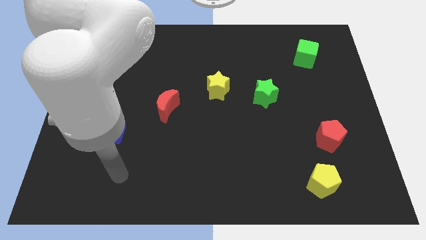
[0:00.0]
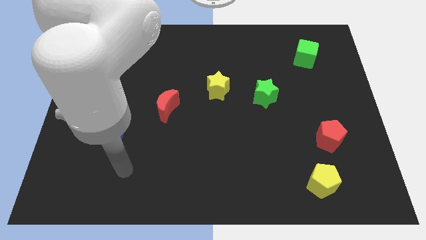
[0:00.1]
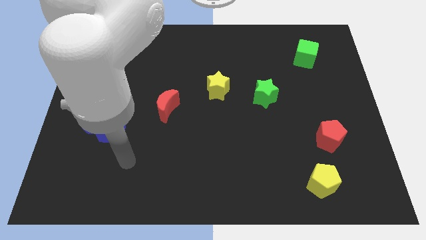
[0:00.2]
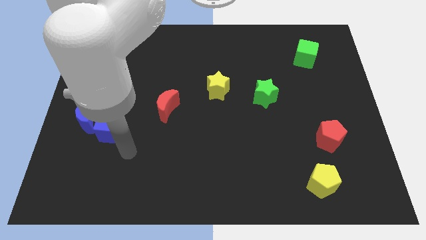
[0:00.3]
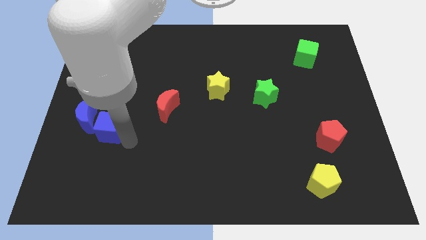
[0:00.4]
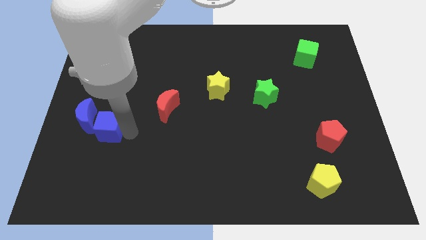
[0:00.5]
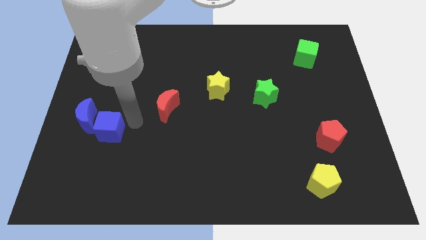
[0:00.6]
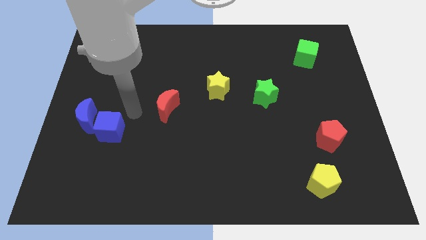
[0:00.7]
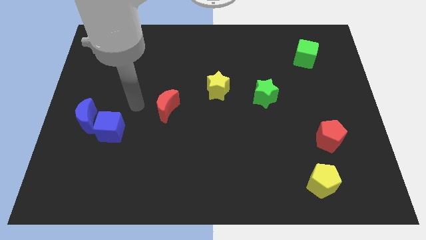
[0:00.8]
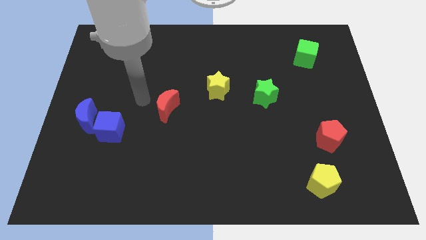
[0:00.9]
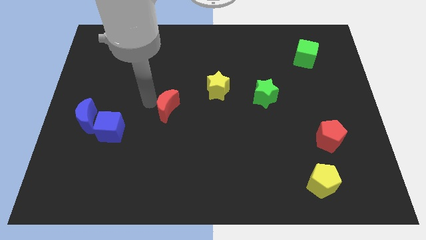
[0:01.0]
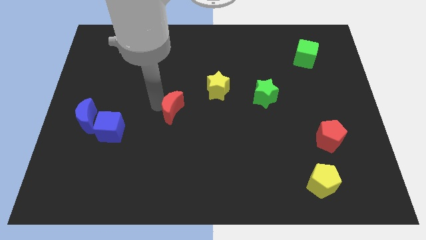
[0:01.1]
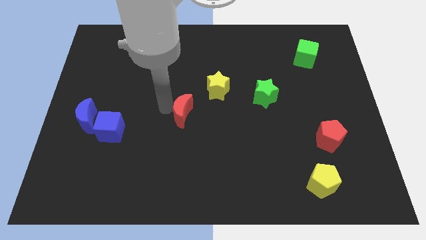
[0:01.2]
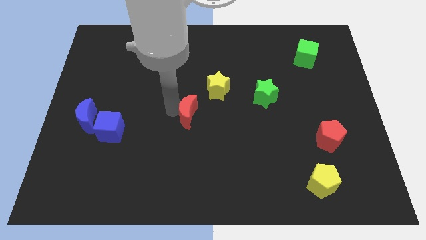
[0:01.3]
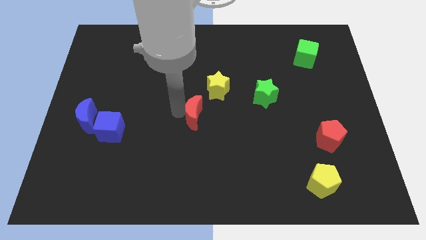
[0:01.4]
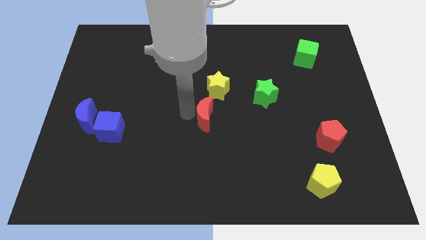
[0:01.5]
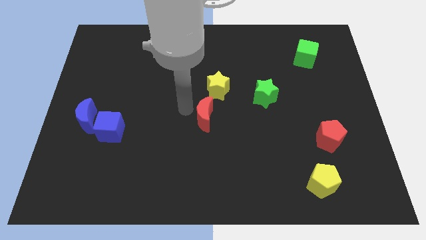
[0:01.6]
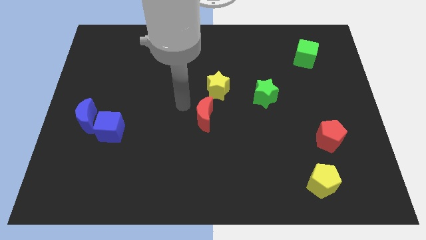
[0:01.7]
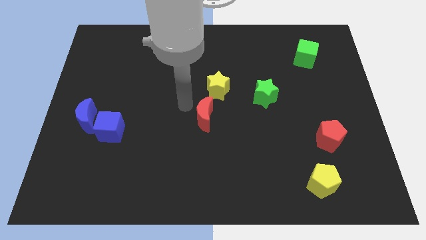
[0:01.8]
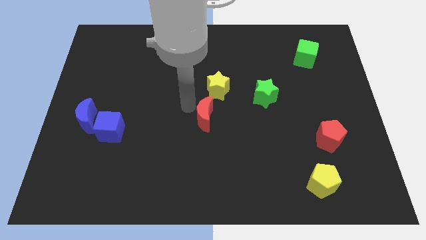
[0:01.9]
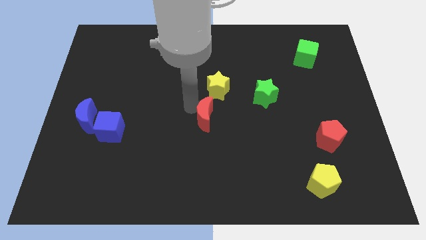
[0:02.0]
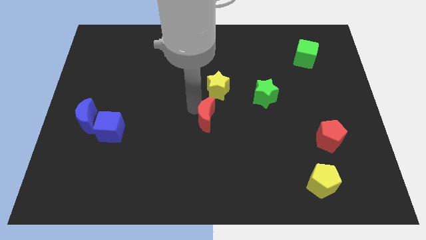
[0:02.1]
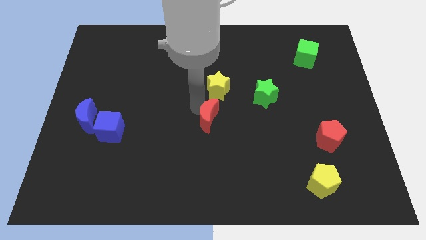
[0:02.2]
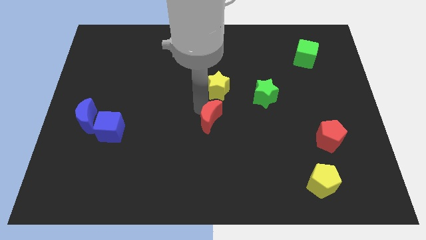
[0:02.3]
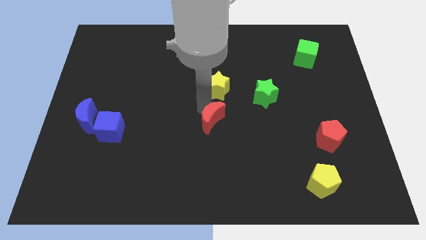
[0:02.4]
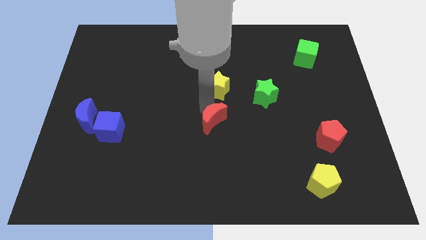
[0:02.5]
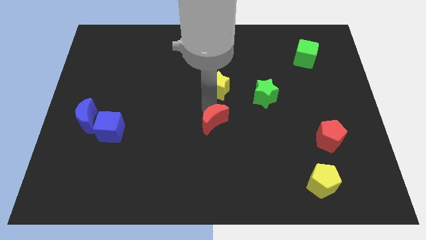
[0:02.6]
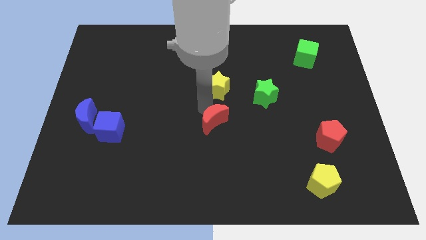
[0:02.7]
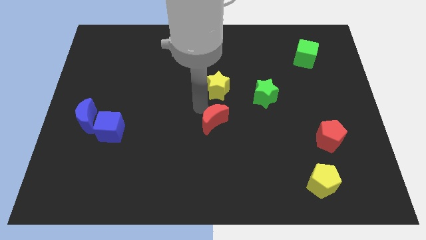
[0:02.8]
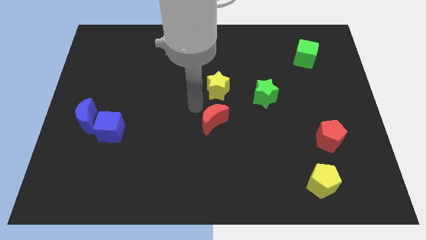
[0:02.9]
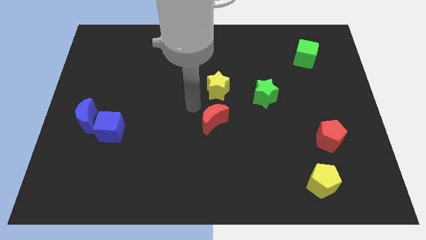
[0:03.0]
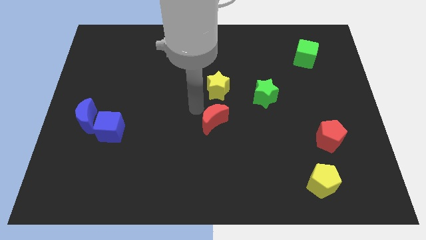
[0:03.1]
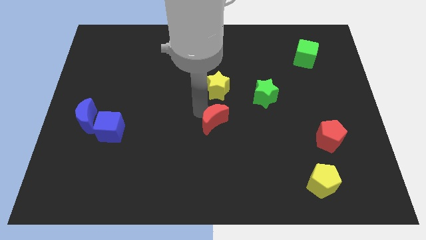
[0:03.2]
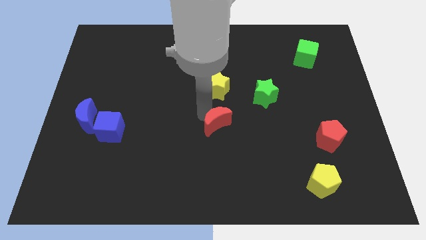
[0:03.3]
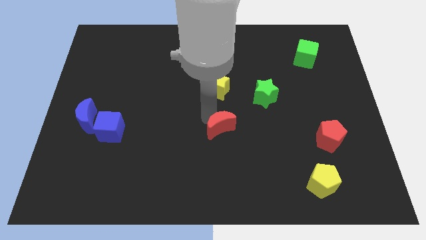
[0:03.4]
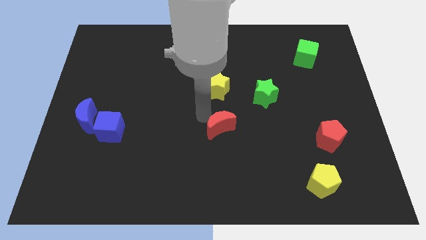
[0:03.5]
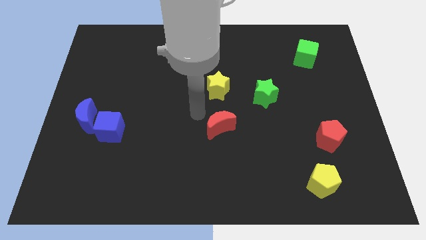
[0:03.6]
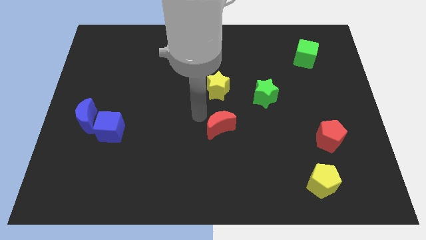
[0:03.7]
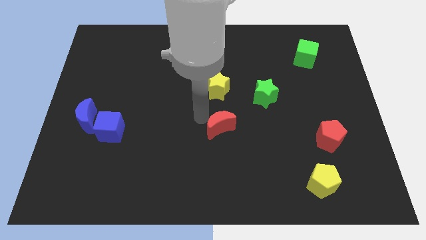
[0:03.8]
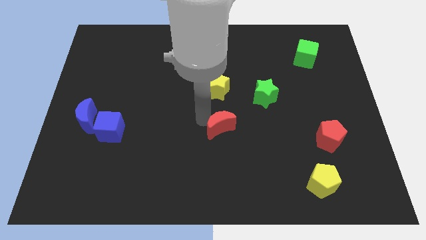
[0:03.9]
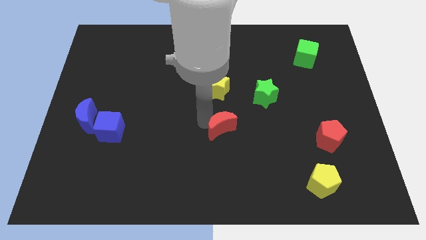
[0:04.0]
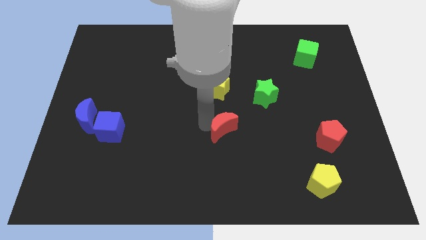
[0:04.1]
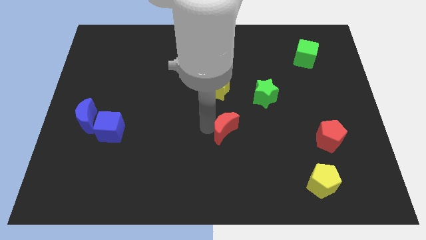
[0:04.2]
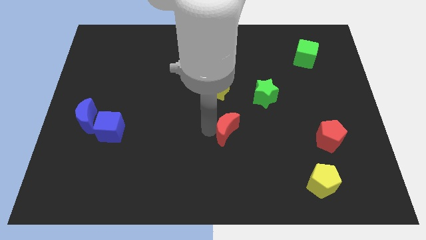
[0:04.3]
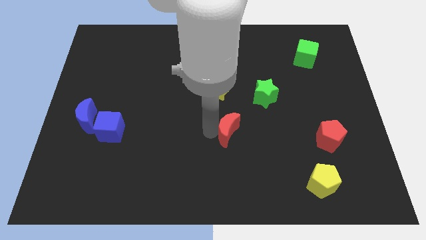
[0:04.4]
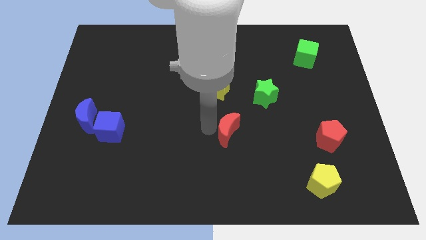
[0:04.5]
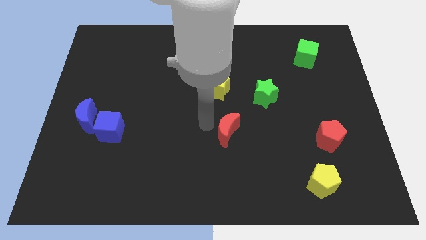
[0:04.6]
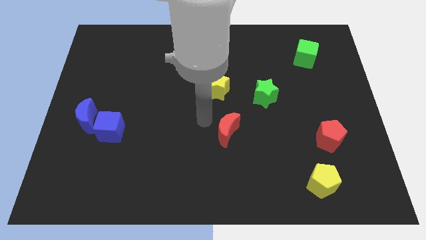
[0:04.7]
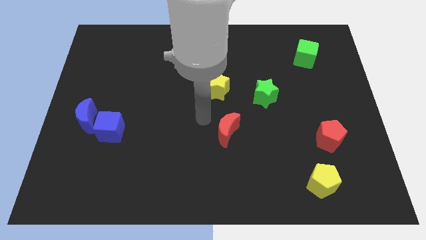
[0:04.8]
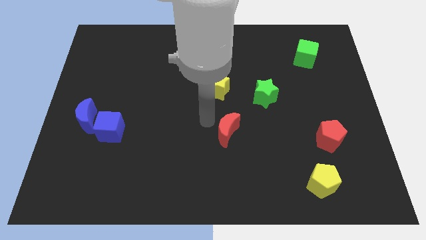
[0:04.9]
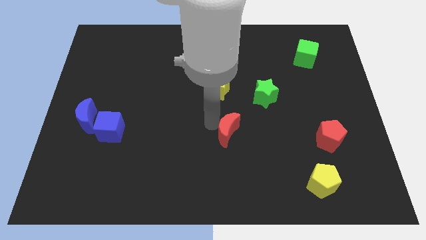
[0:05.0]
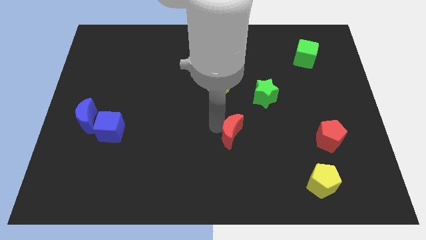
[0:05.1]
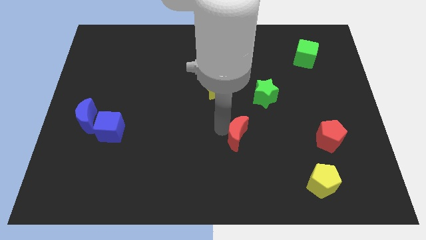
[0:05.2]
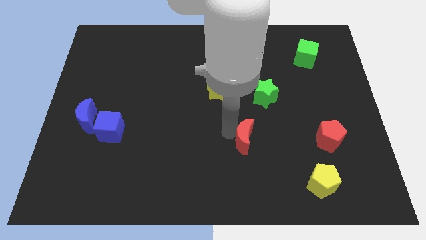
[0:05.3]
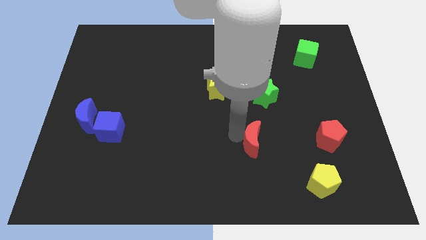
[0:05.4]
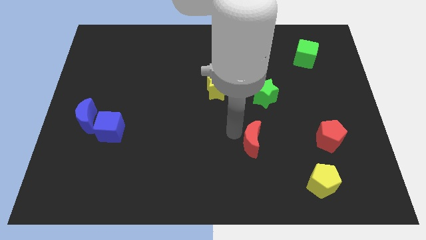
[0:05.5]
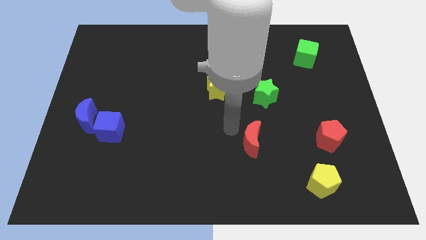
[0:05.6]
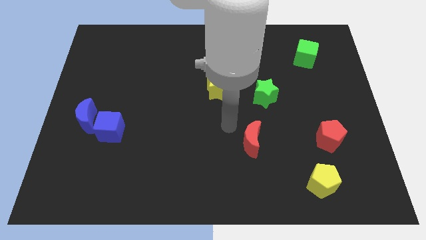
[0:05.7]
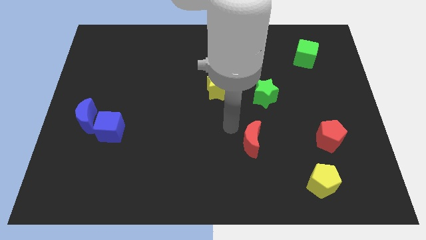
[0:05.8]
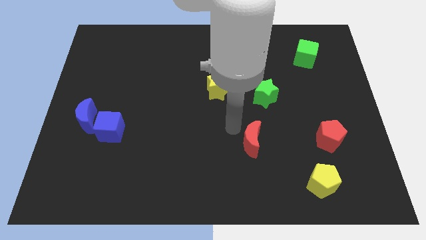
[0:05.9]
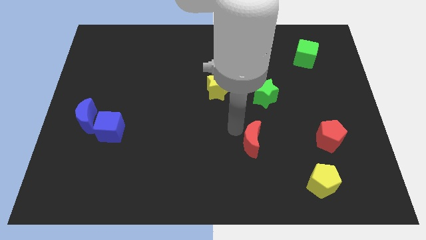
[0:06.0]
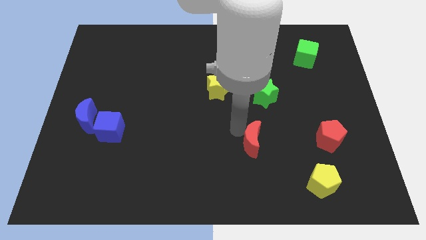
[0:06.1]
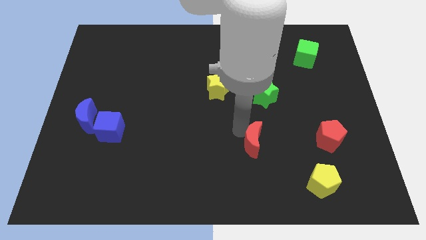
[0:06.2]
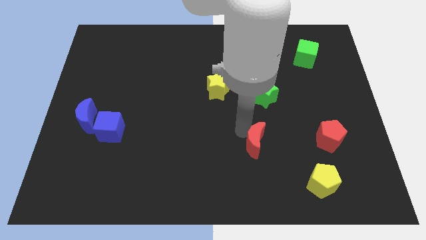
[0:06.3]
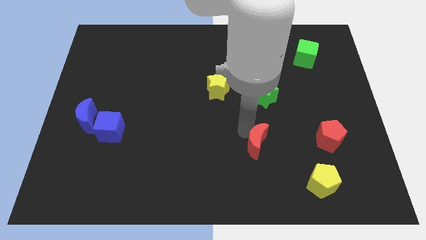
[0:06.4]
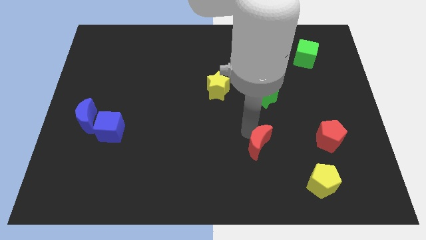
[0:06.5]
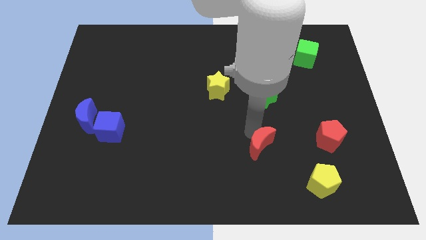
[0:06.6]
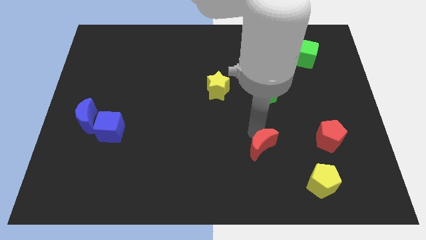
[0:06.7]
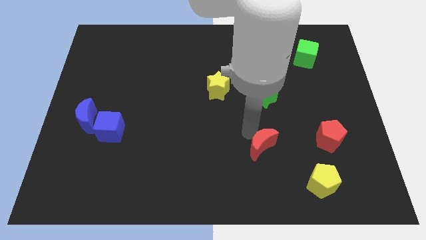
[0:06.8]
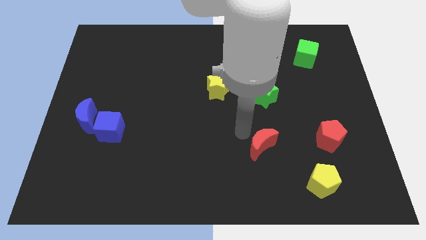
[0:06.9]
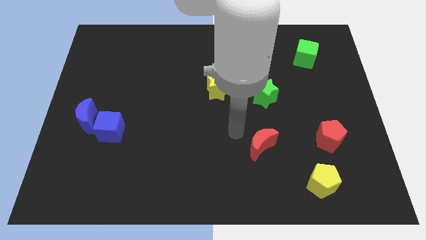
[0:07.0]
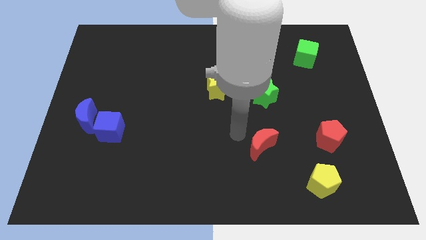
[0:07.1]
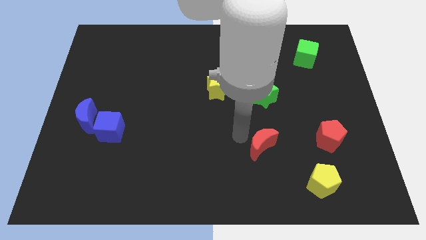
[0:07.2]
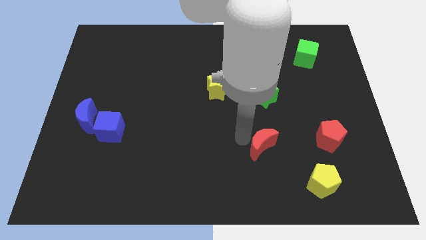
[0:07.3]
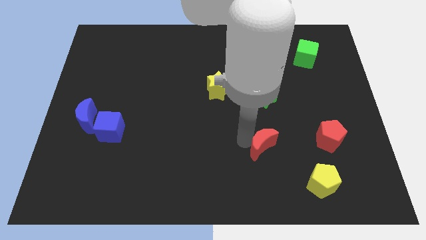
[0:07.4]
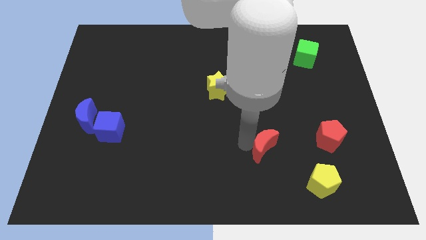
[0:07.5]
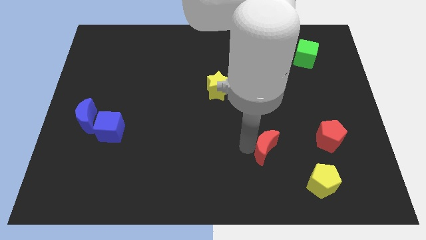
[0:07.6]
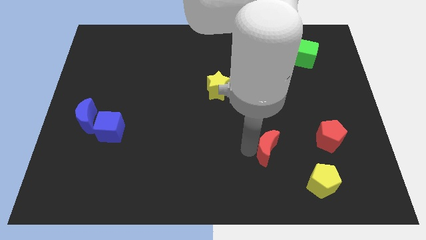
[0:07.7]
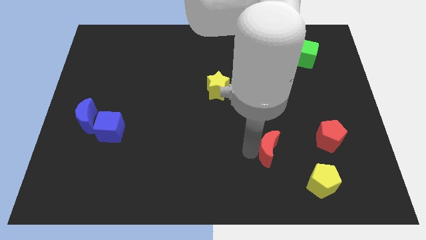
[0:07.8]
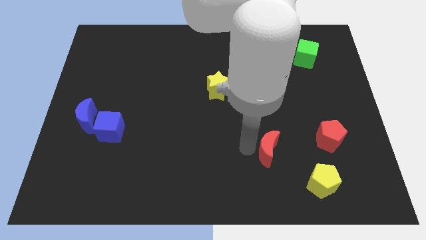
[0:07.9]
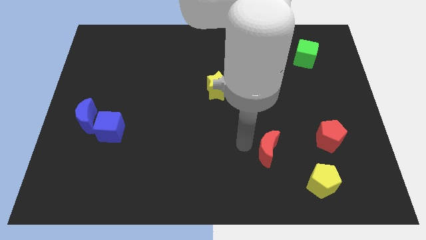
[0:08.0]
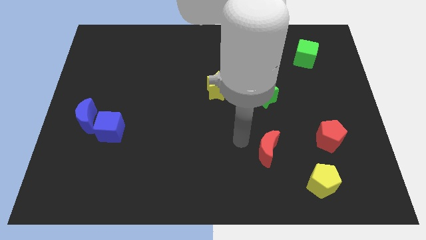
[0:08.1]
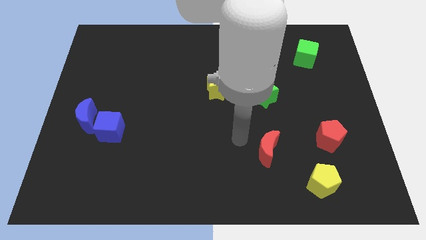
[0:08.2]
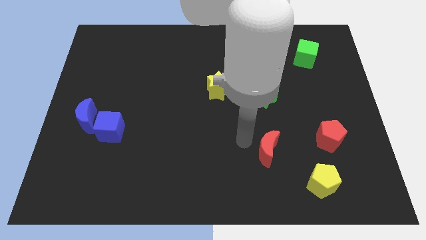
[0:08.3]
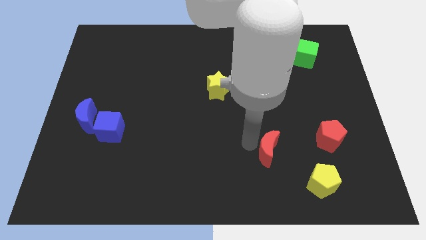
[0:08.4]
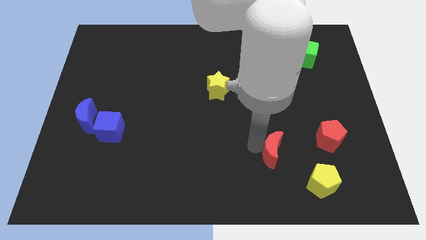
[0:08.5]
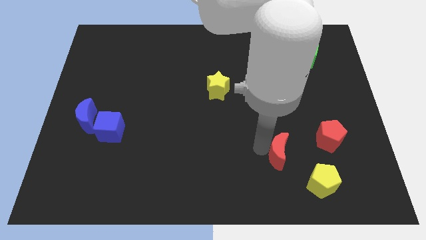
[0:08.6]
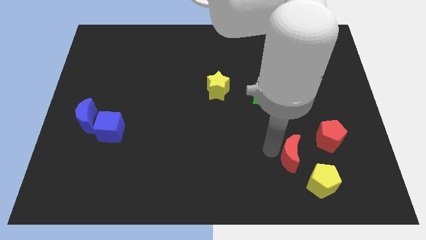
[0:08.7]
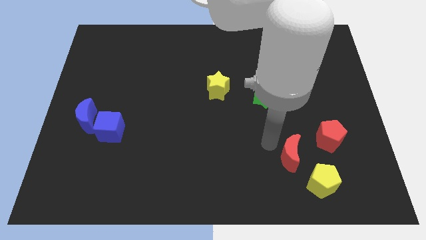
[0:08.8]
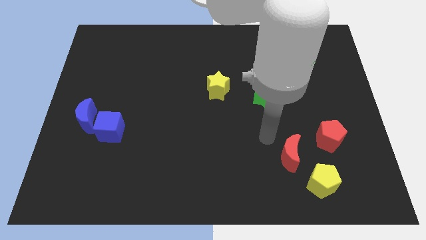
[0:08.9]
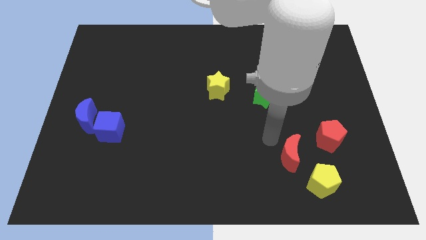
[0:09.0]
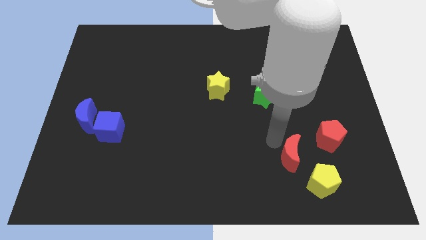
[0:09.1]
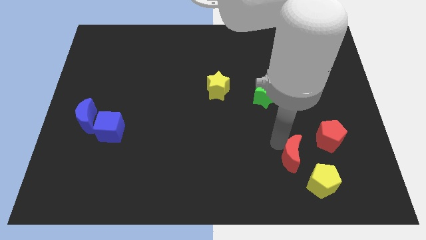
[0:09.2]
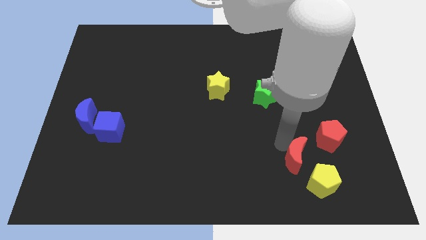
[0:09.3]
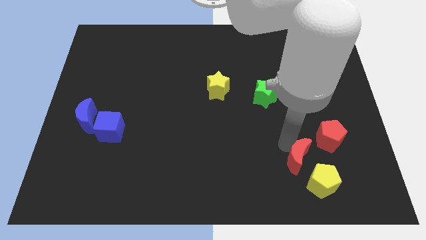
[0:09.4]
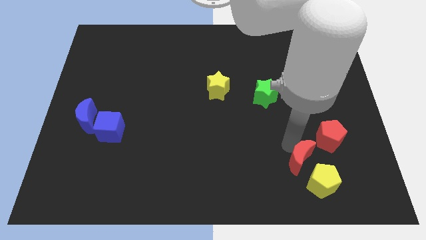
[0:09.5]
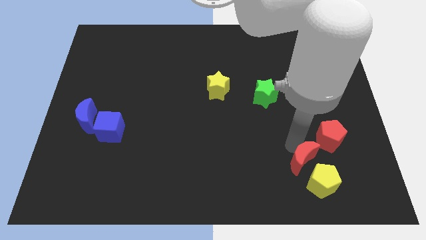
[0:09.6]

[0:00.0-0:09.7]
put the red moon towards the yellow pentagon
